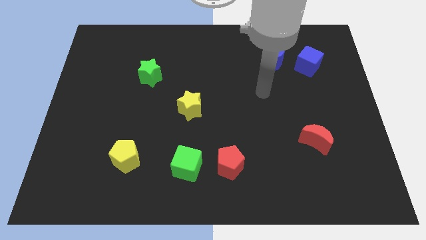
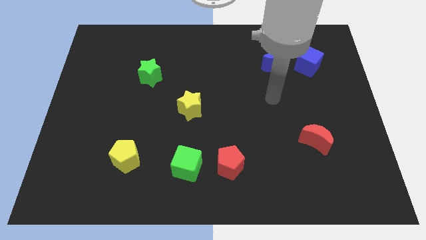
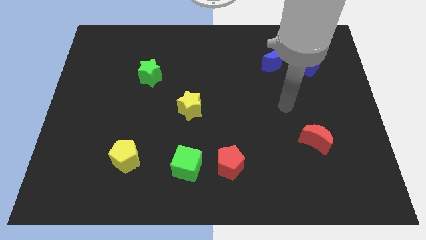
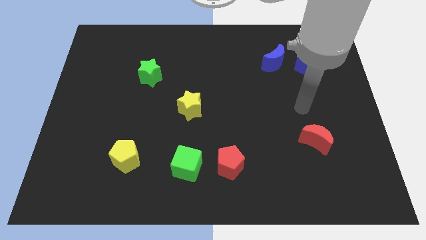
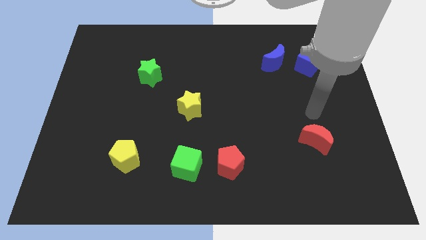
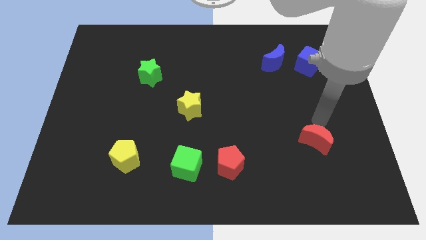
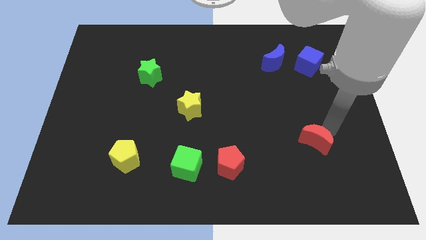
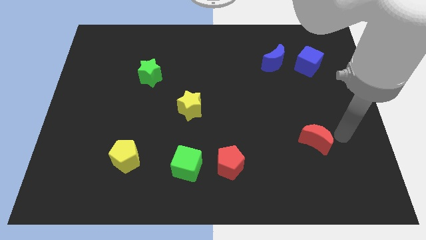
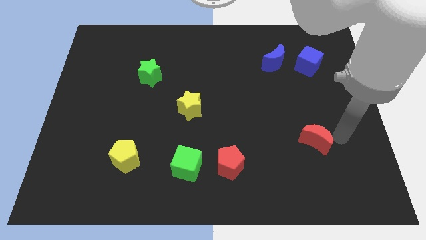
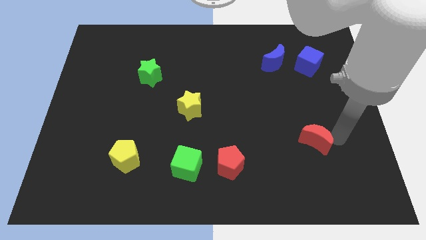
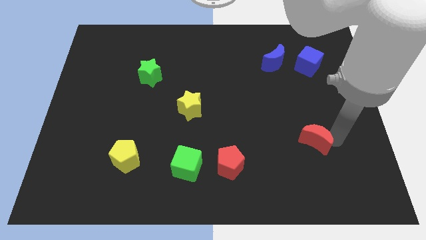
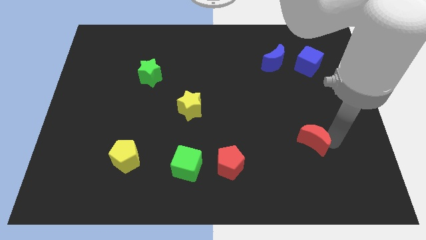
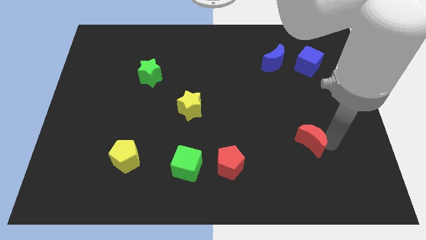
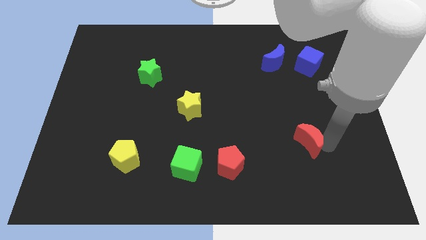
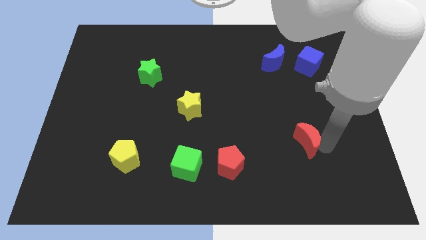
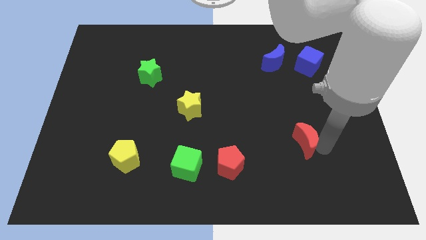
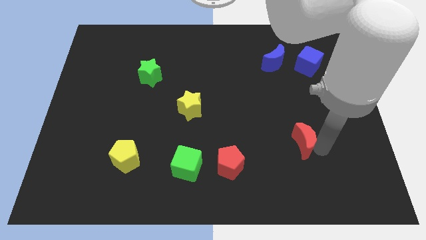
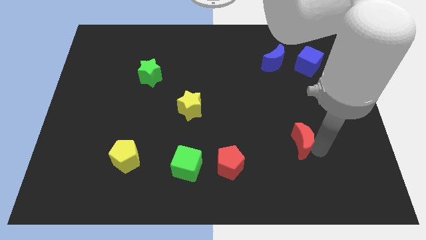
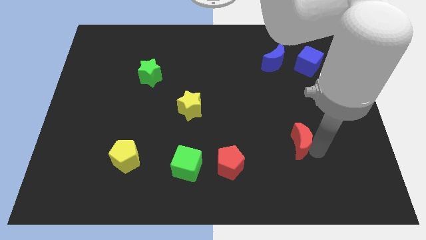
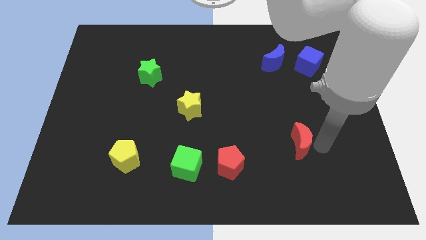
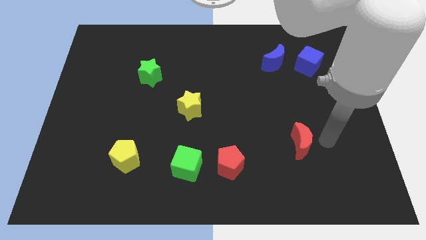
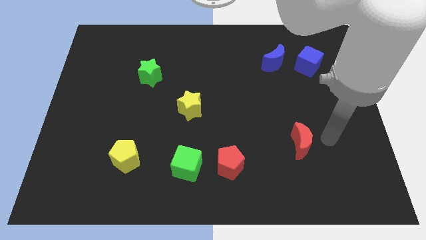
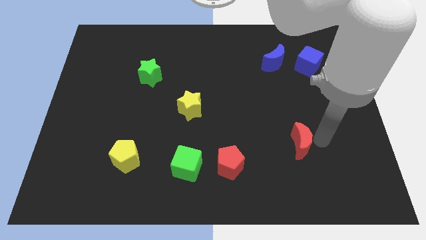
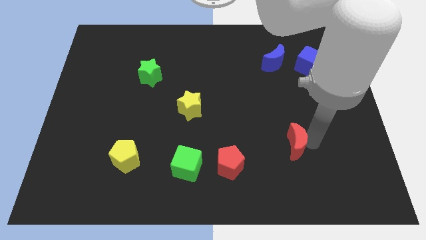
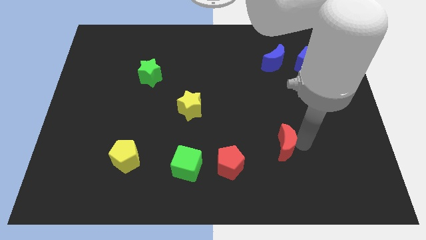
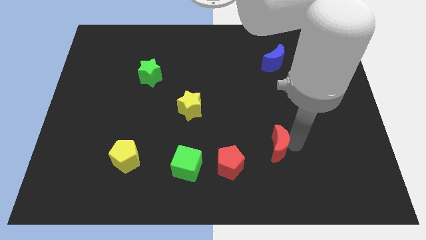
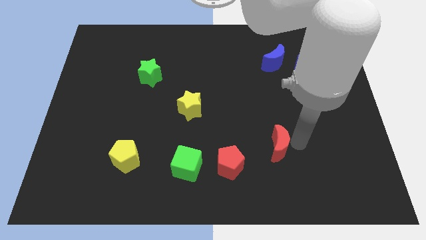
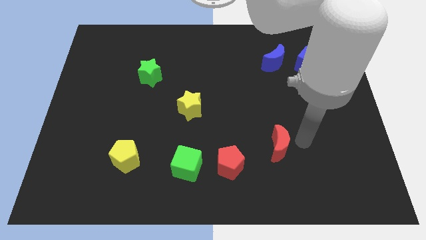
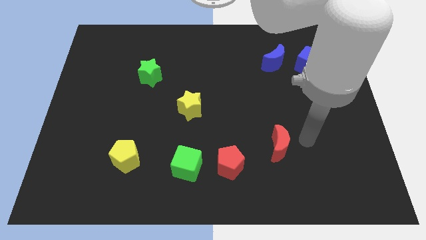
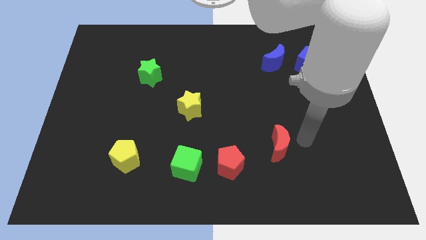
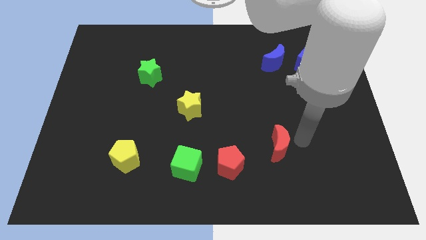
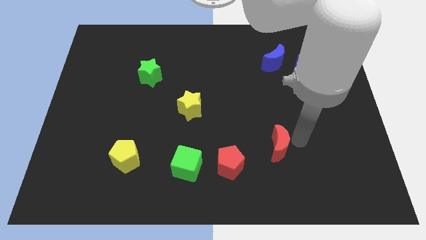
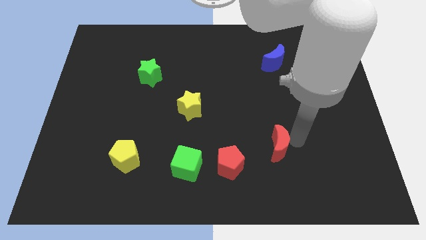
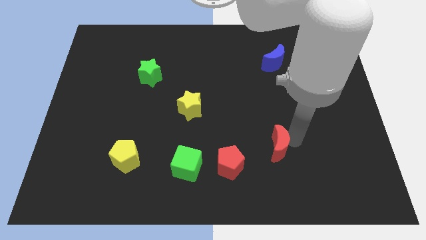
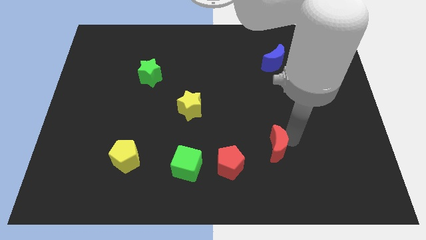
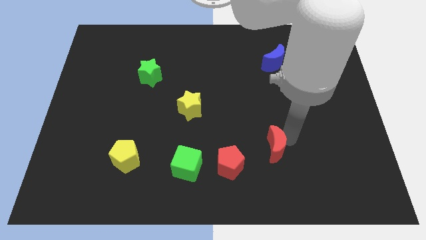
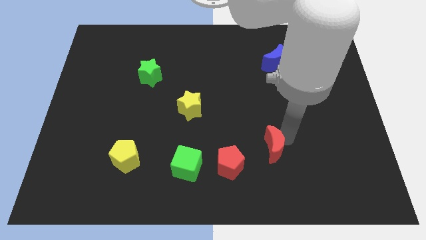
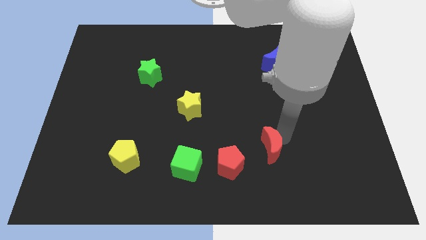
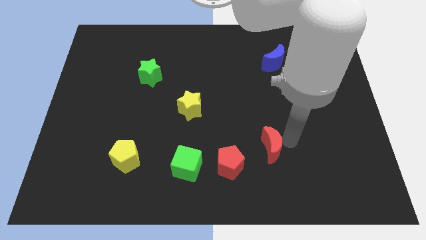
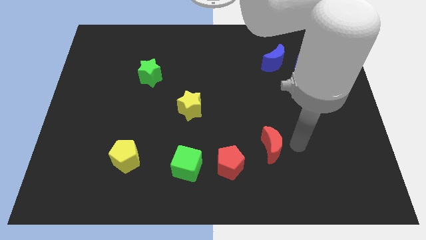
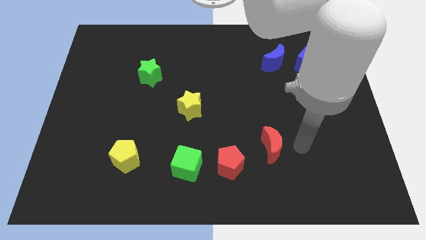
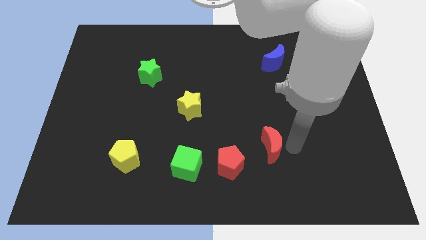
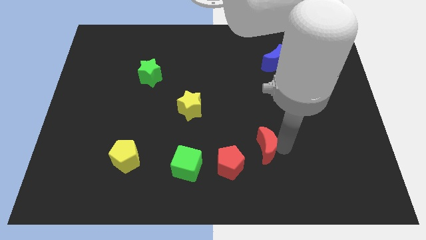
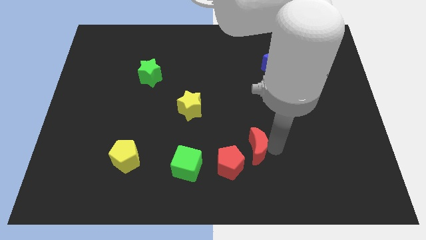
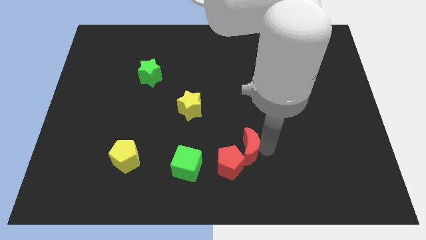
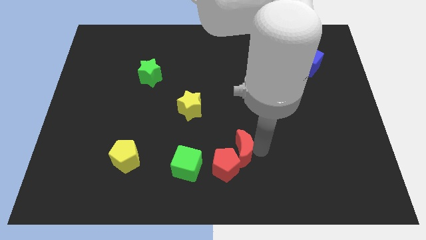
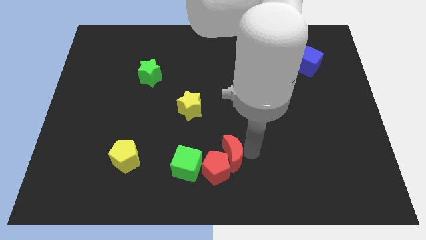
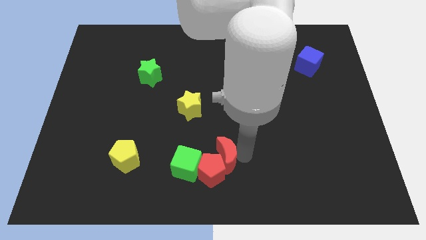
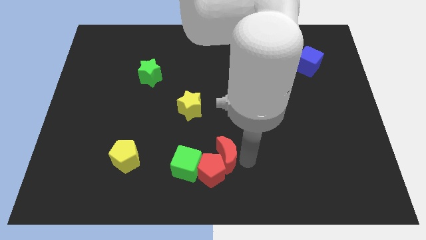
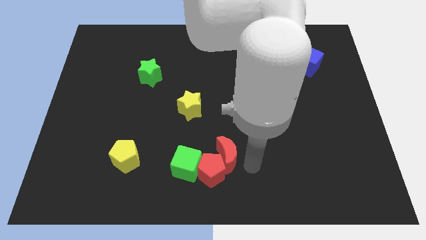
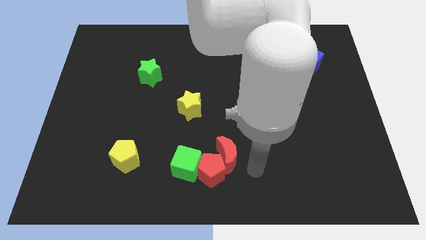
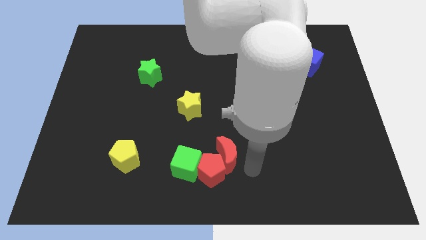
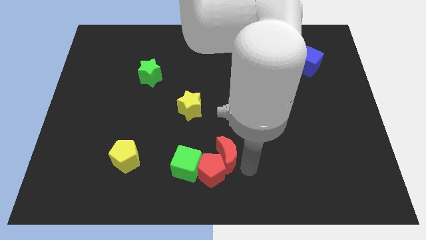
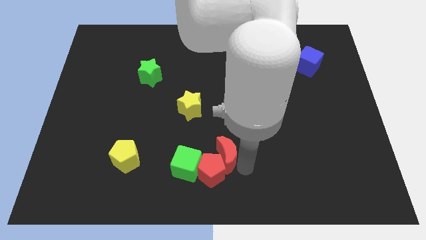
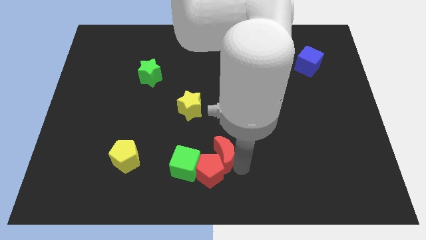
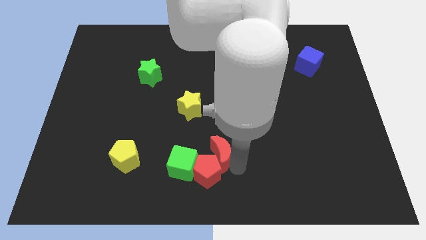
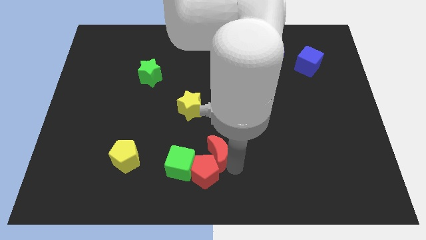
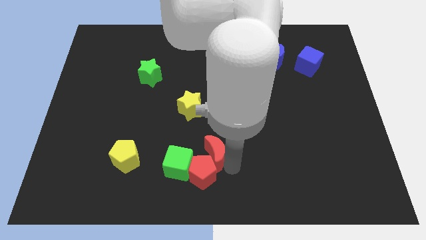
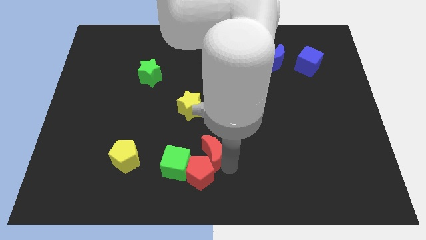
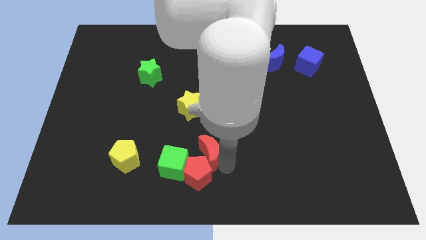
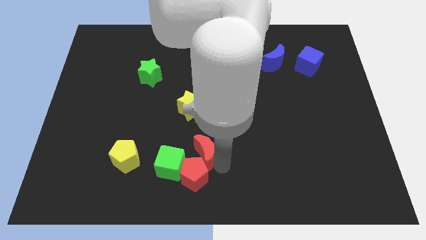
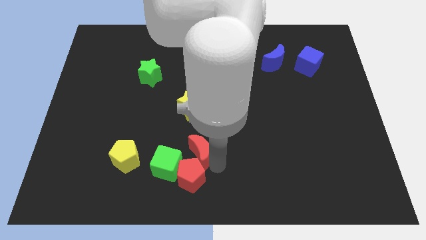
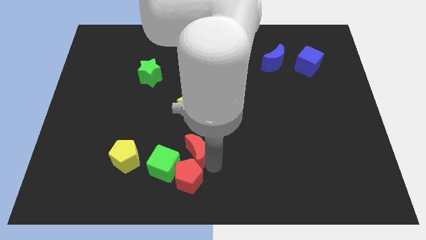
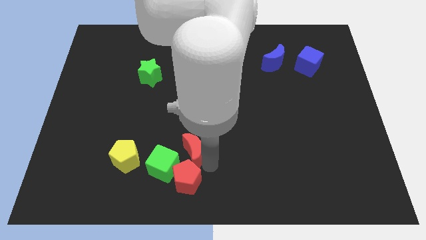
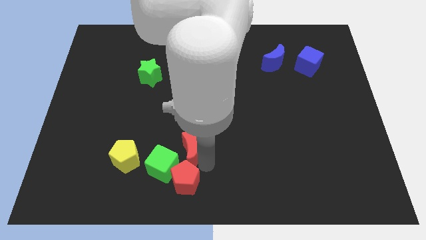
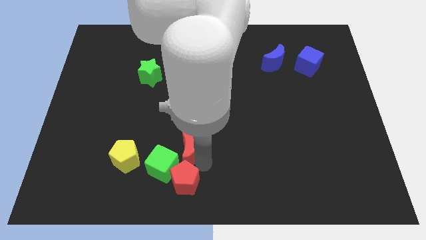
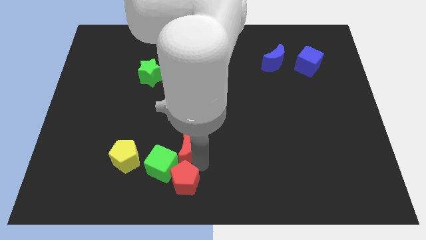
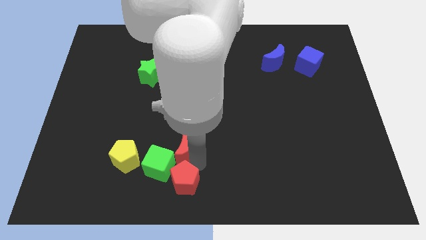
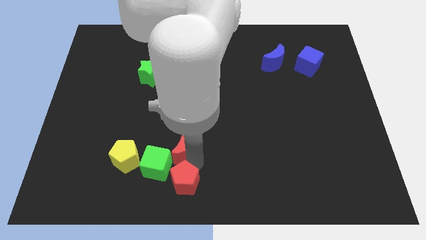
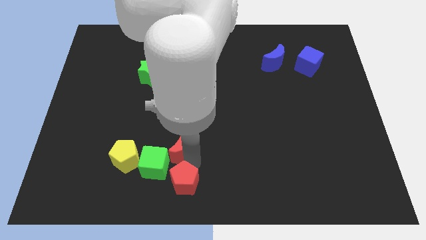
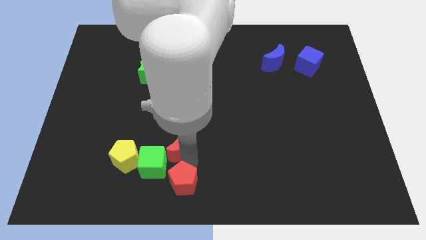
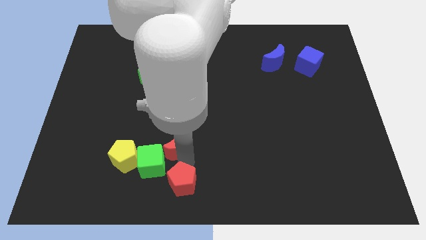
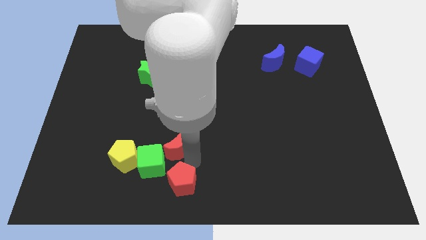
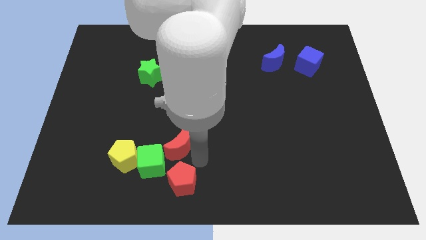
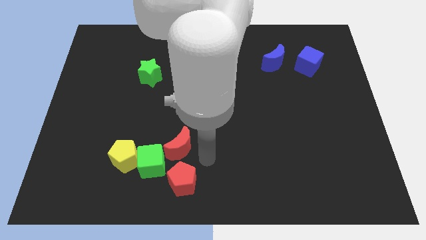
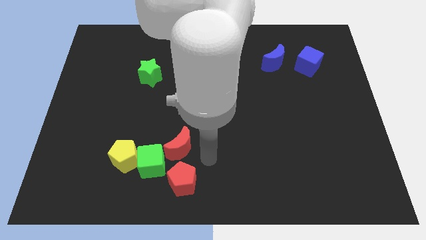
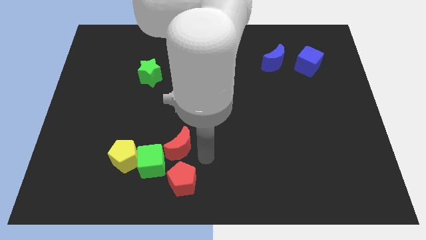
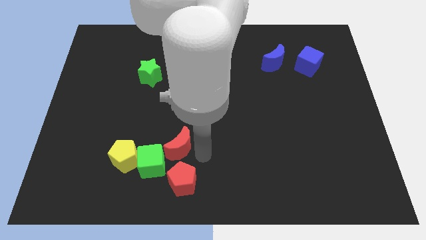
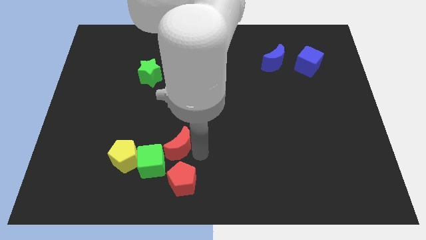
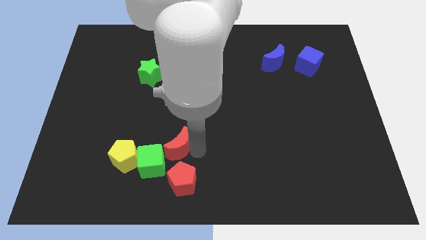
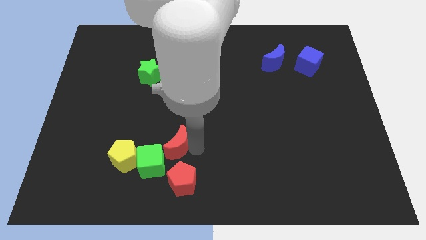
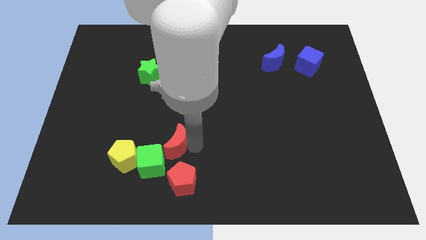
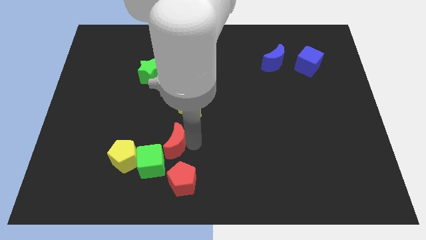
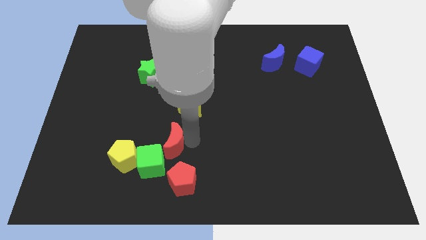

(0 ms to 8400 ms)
put the red moon diagonally up and to the right of the yellow pentagon
